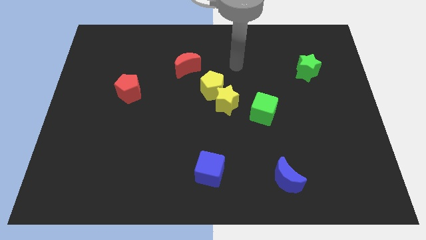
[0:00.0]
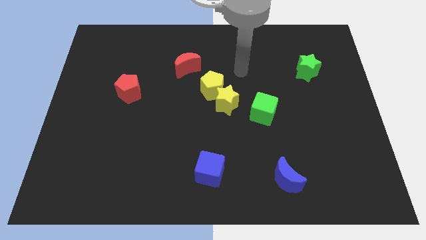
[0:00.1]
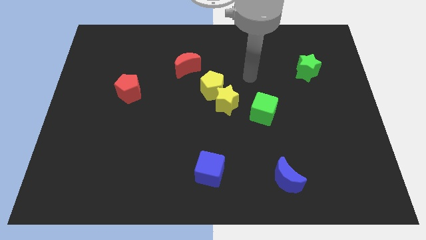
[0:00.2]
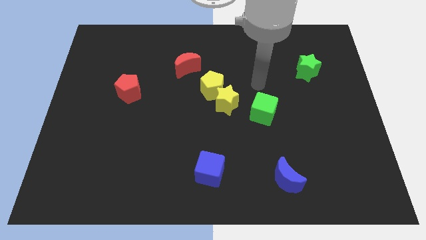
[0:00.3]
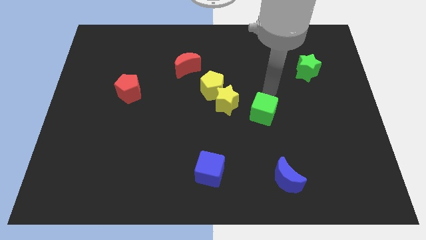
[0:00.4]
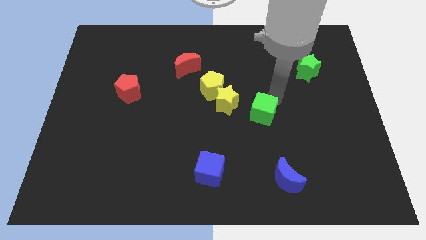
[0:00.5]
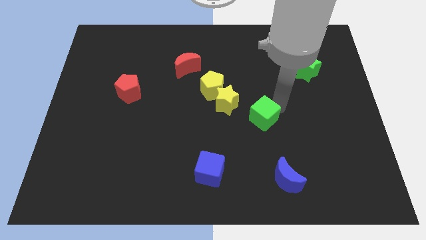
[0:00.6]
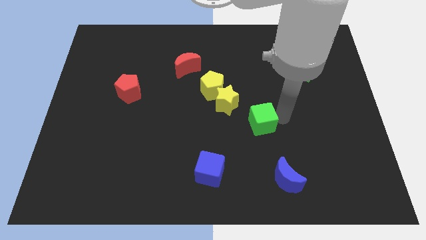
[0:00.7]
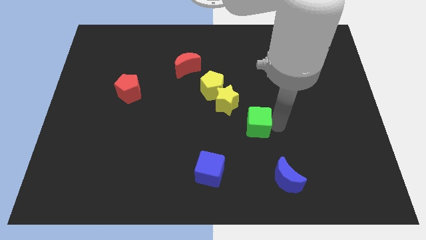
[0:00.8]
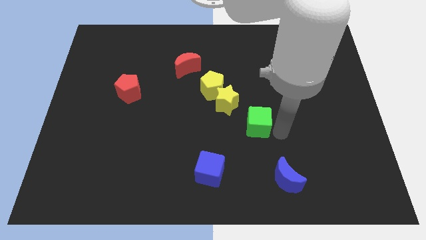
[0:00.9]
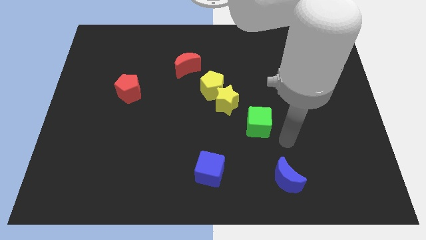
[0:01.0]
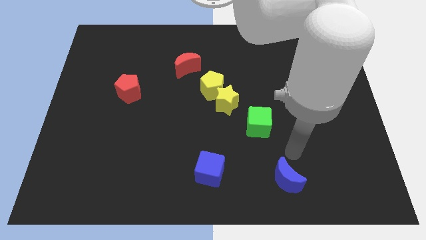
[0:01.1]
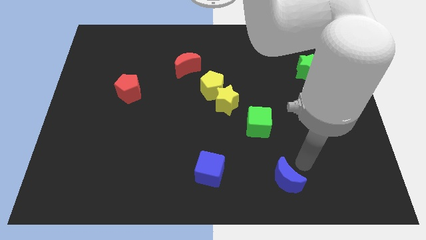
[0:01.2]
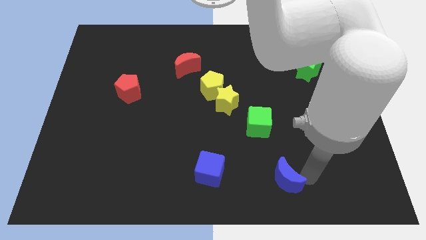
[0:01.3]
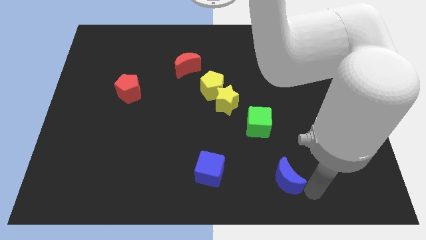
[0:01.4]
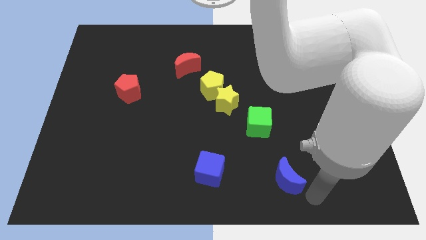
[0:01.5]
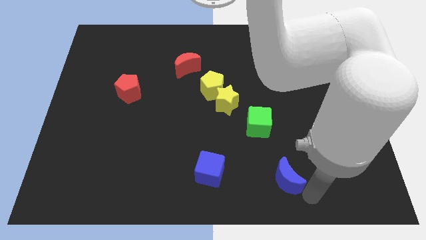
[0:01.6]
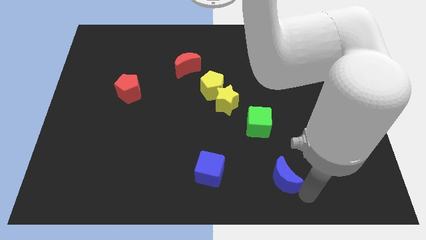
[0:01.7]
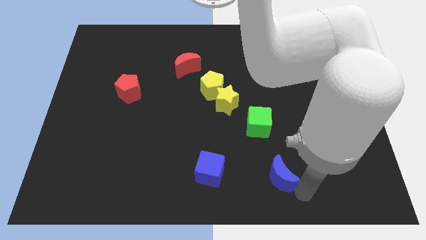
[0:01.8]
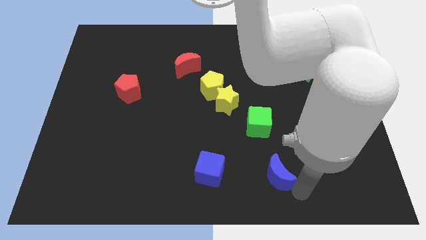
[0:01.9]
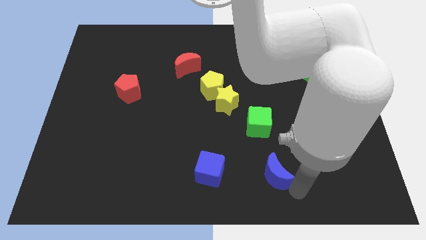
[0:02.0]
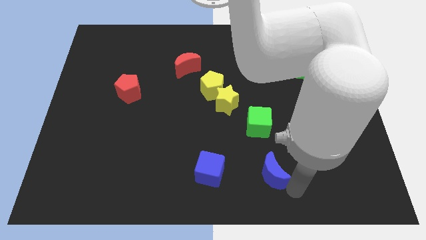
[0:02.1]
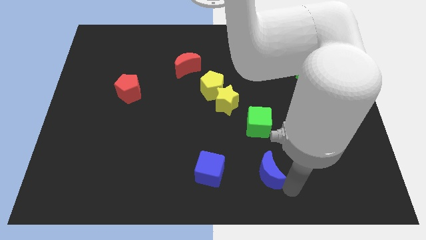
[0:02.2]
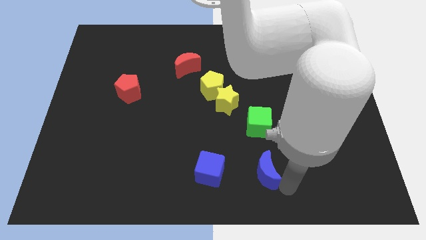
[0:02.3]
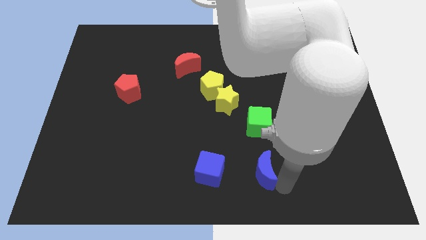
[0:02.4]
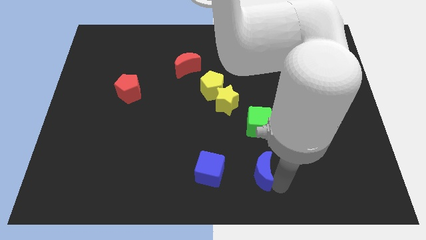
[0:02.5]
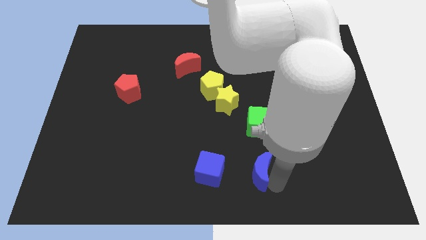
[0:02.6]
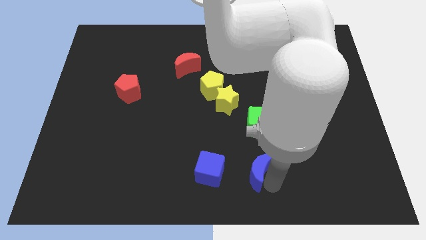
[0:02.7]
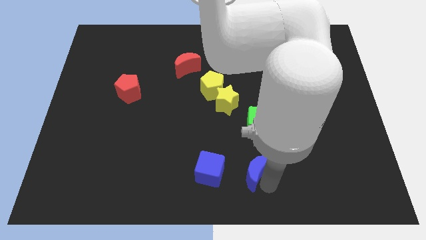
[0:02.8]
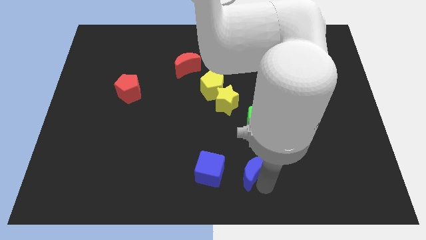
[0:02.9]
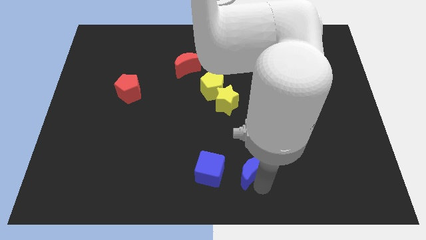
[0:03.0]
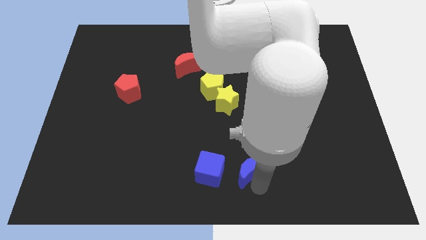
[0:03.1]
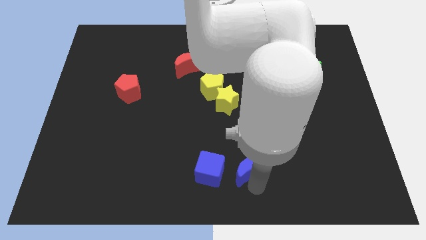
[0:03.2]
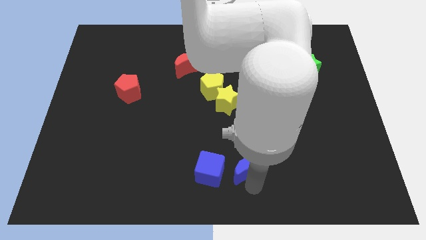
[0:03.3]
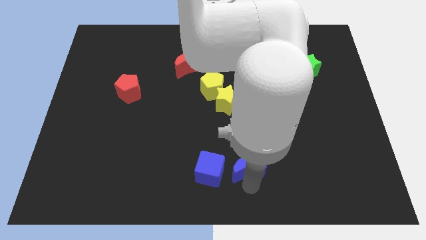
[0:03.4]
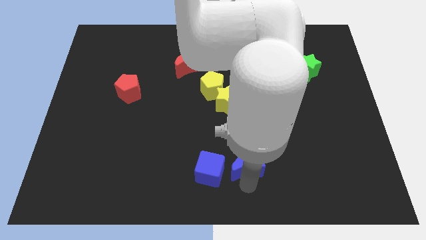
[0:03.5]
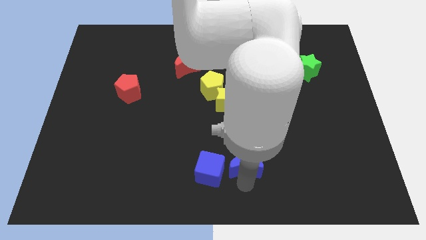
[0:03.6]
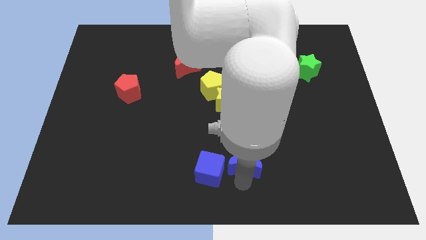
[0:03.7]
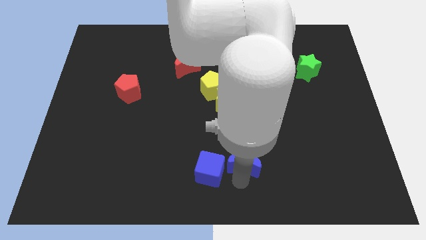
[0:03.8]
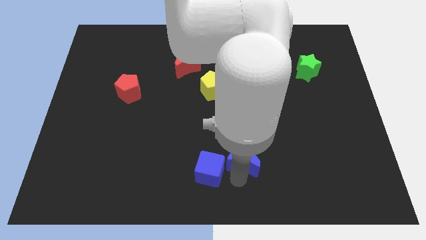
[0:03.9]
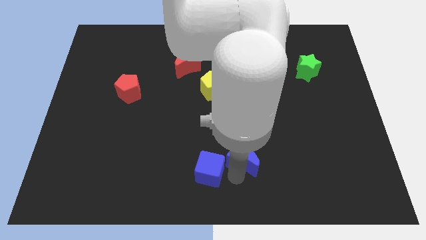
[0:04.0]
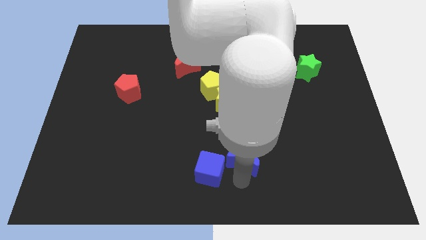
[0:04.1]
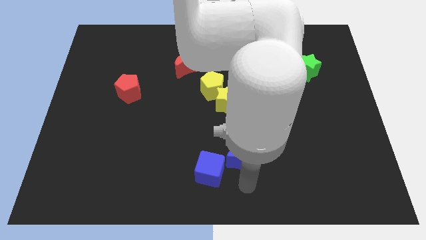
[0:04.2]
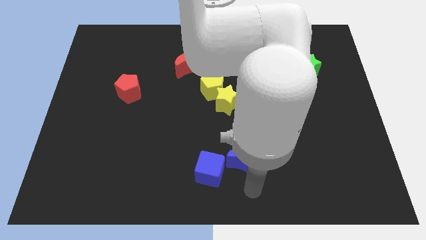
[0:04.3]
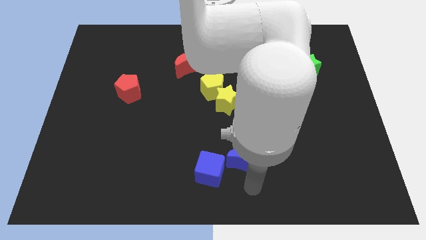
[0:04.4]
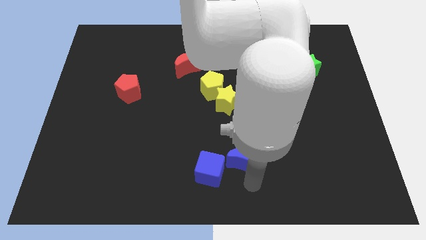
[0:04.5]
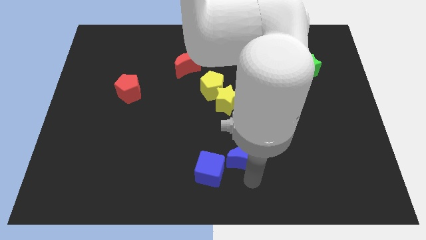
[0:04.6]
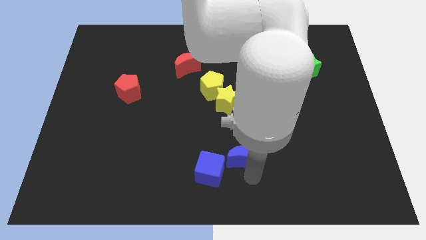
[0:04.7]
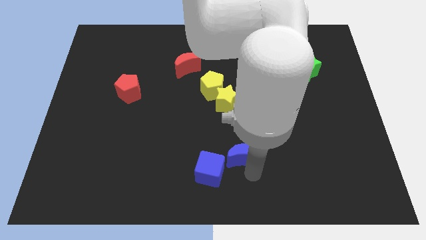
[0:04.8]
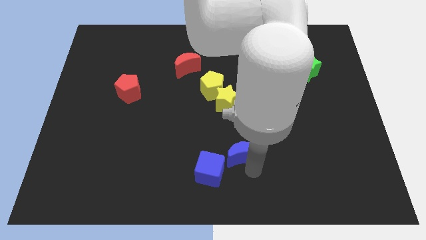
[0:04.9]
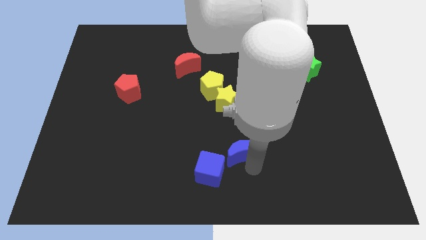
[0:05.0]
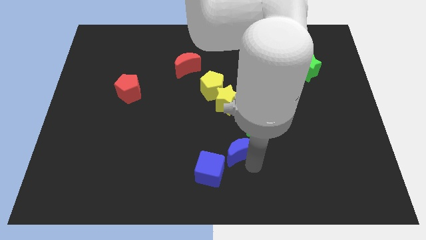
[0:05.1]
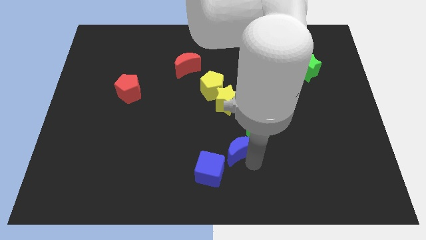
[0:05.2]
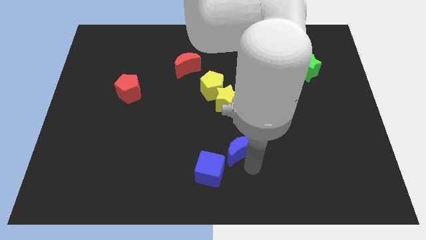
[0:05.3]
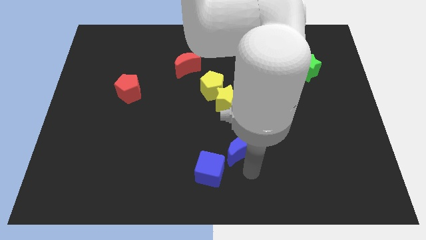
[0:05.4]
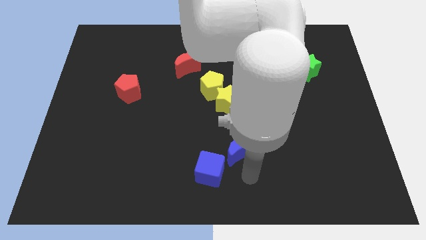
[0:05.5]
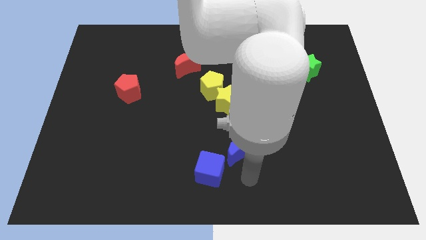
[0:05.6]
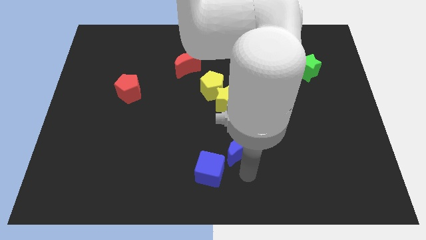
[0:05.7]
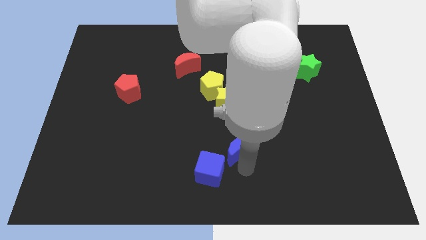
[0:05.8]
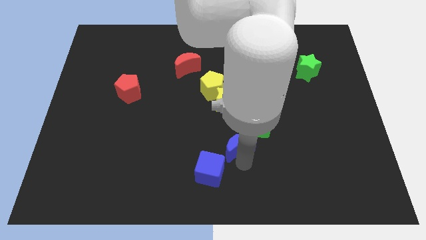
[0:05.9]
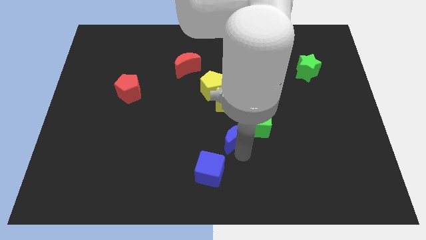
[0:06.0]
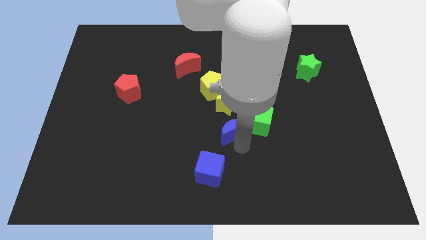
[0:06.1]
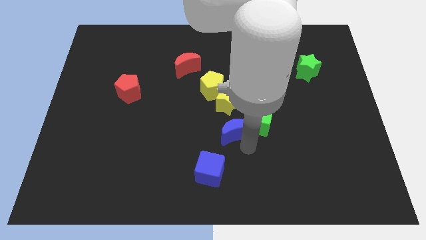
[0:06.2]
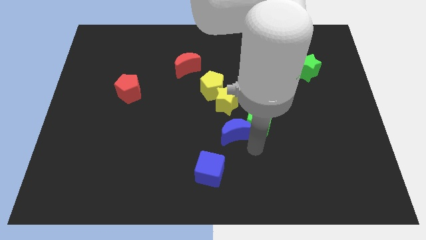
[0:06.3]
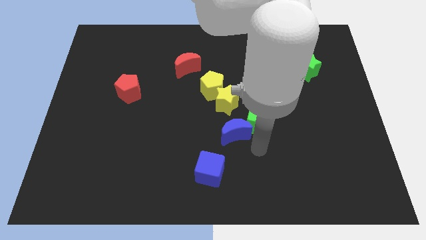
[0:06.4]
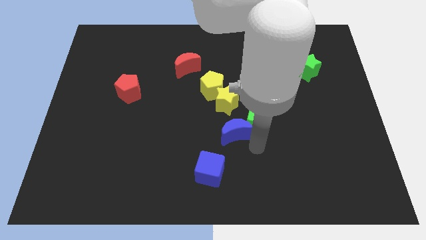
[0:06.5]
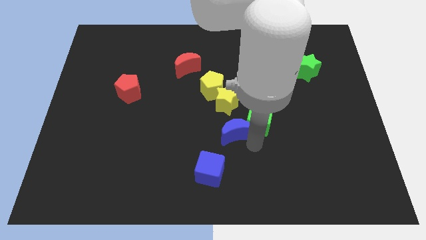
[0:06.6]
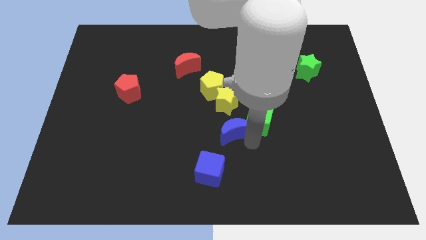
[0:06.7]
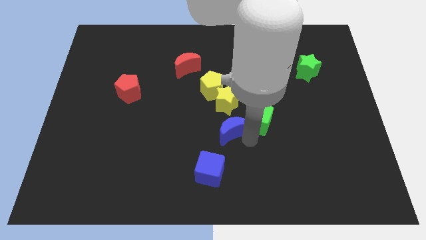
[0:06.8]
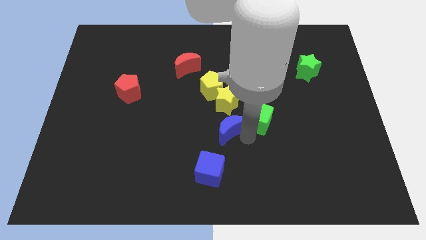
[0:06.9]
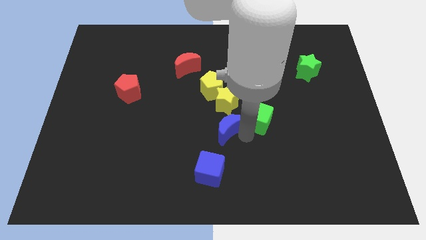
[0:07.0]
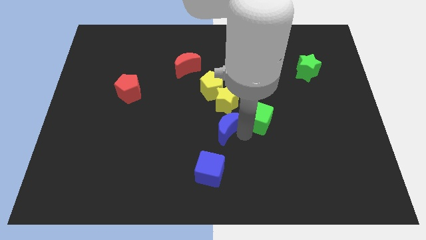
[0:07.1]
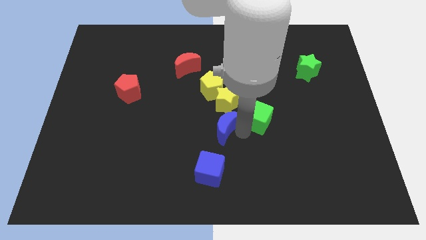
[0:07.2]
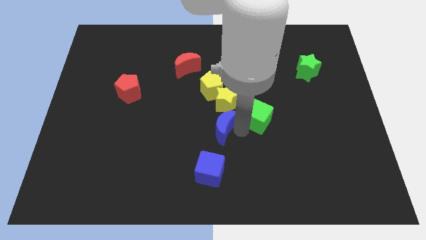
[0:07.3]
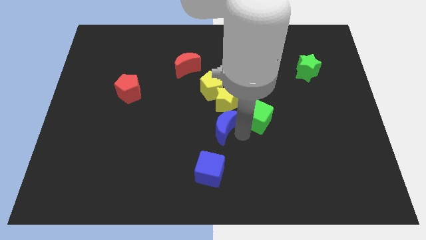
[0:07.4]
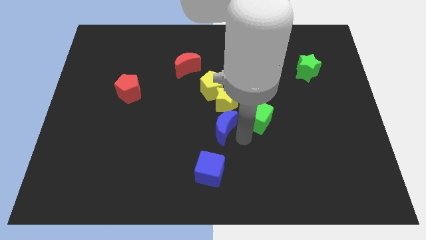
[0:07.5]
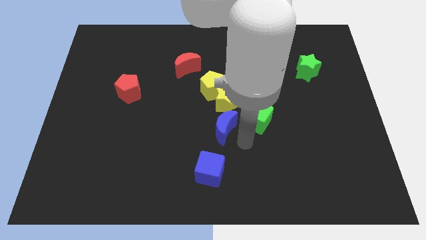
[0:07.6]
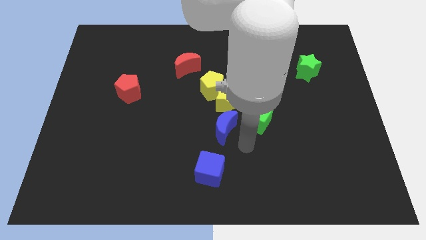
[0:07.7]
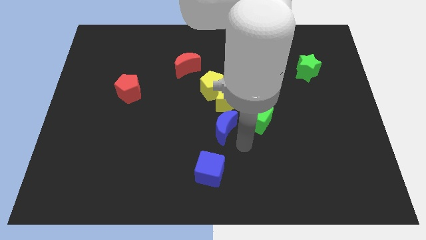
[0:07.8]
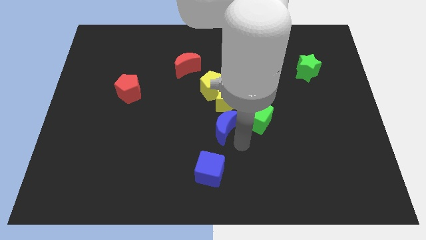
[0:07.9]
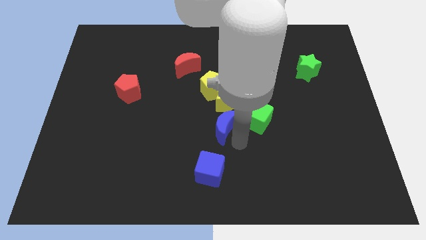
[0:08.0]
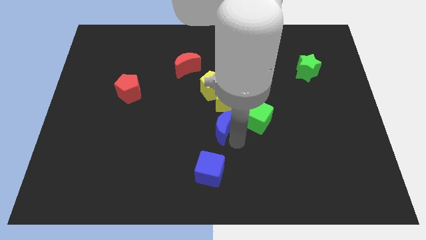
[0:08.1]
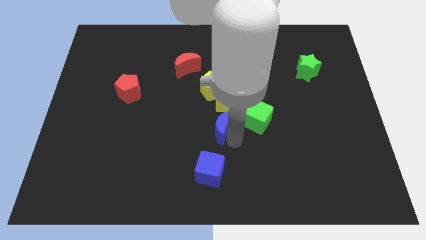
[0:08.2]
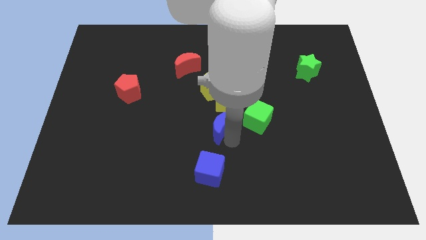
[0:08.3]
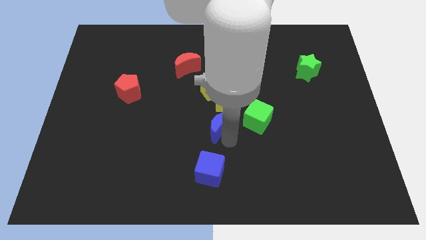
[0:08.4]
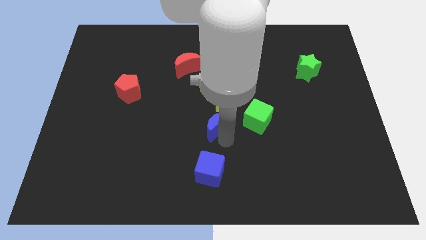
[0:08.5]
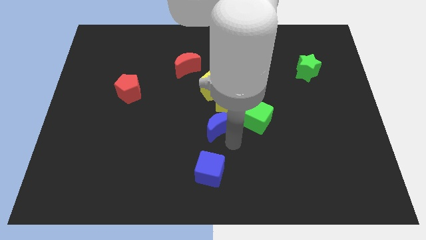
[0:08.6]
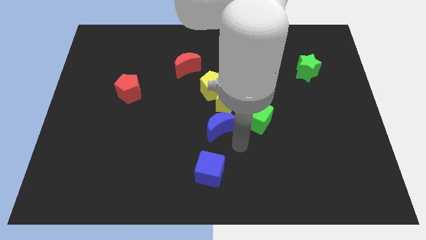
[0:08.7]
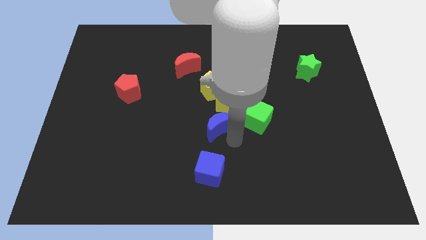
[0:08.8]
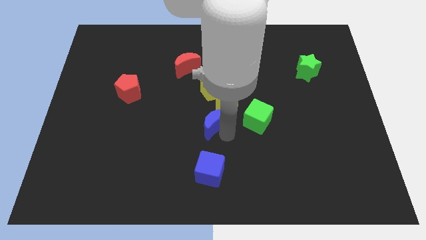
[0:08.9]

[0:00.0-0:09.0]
move the blue moon up and to the left
